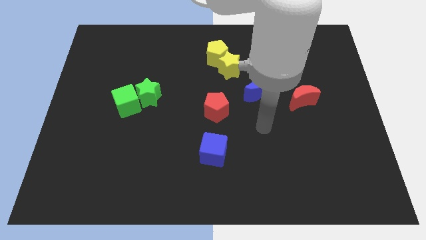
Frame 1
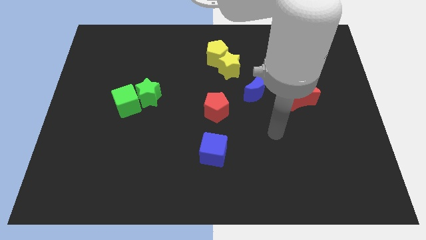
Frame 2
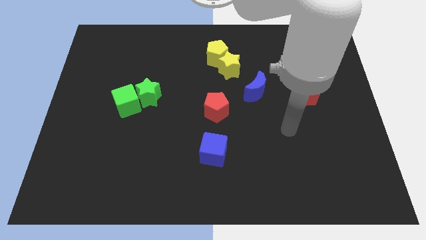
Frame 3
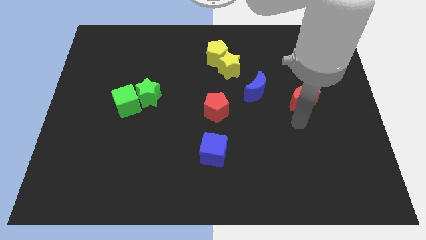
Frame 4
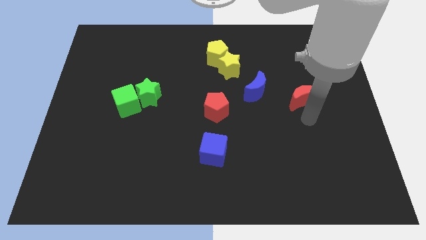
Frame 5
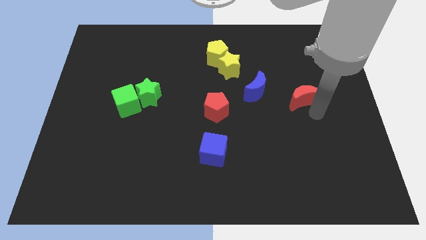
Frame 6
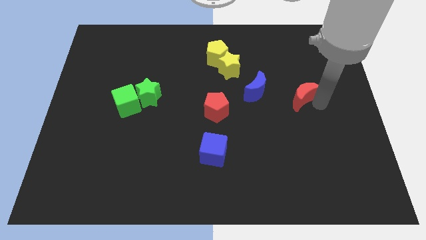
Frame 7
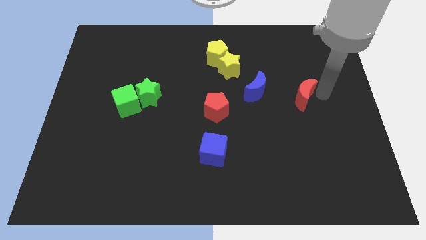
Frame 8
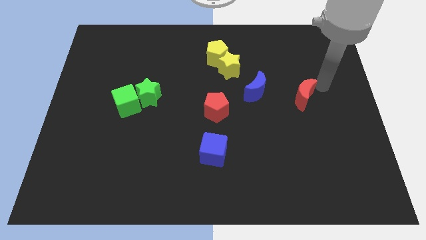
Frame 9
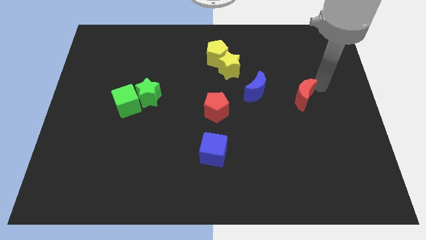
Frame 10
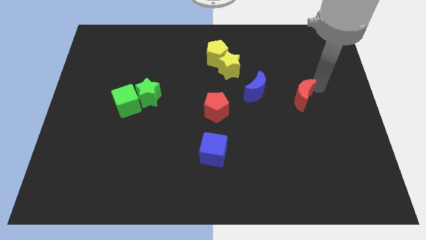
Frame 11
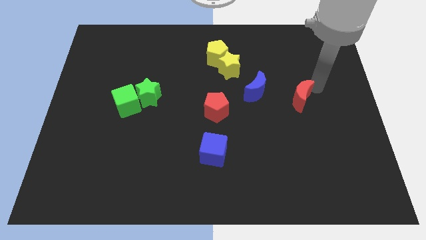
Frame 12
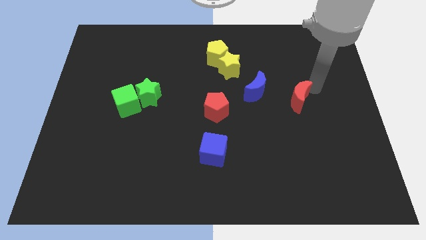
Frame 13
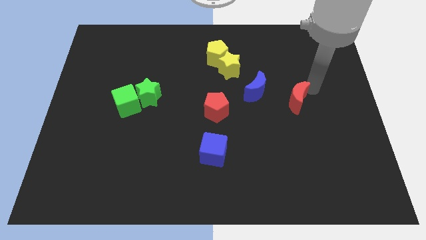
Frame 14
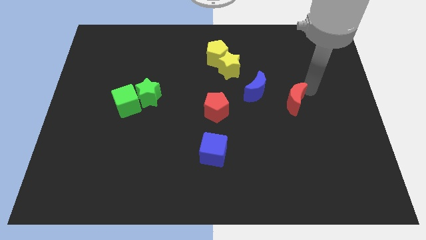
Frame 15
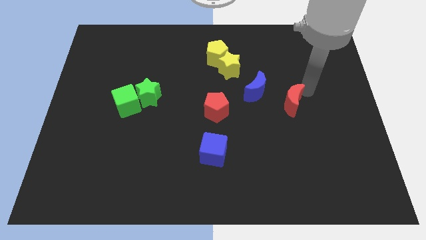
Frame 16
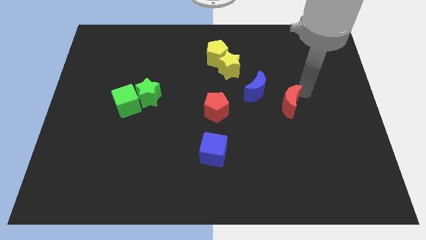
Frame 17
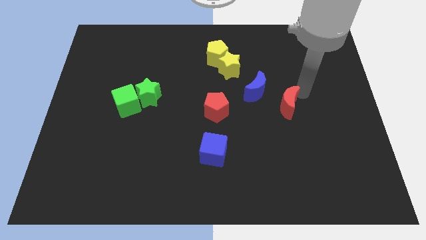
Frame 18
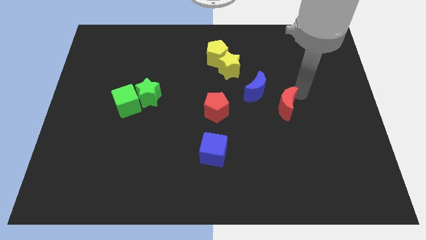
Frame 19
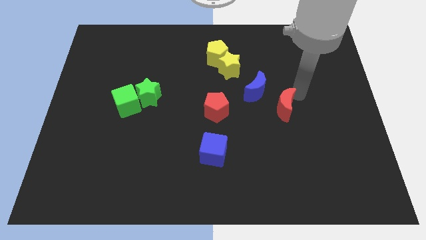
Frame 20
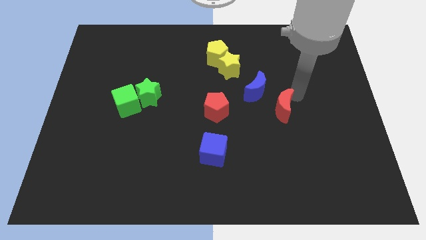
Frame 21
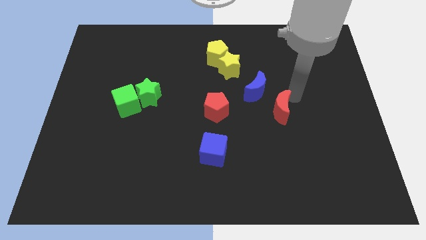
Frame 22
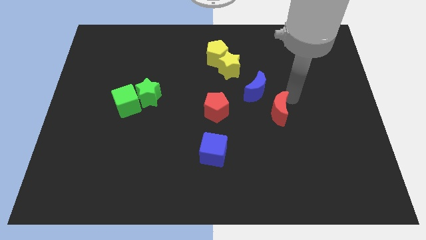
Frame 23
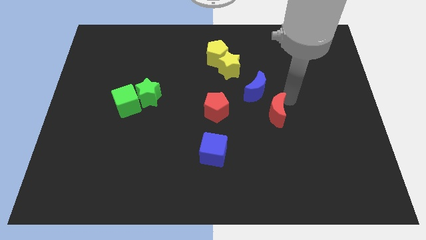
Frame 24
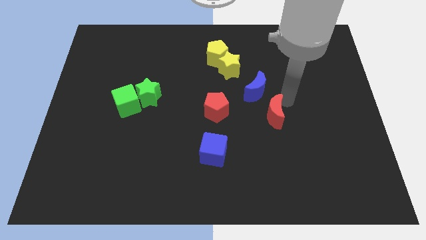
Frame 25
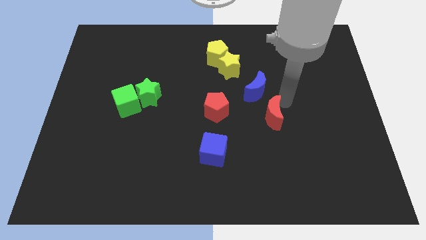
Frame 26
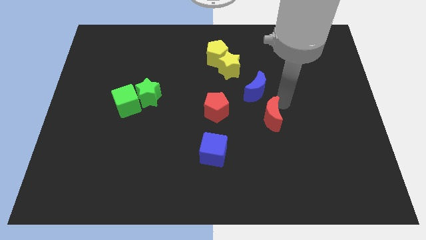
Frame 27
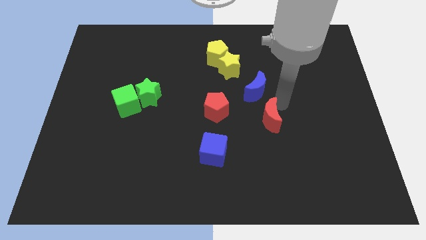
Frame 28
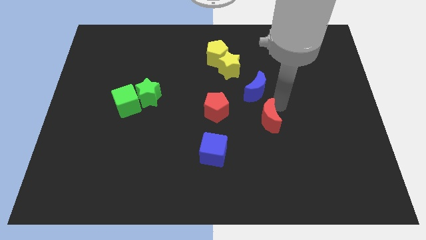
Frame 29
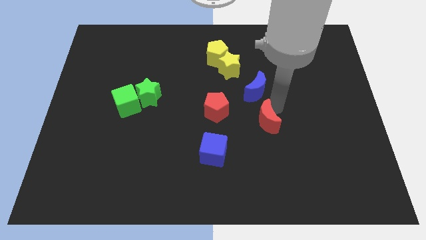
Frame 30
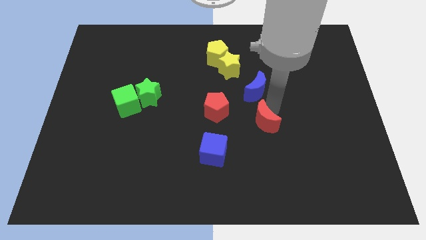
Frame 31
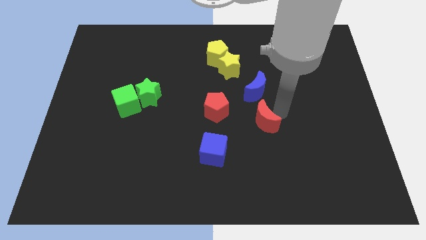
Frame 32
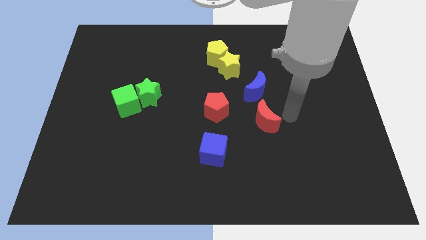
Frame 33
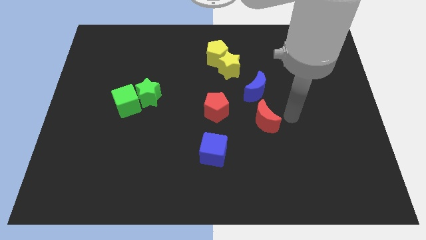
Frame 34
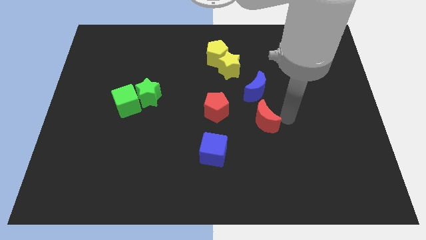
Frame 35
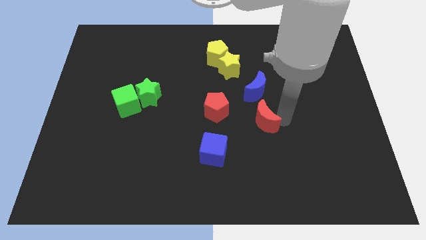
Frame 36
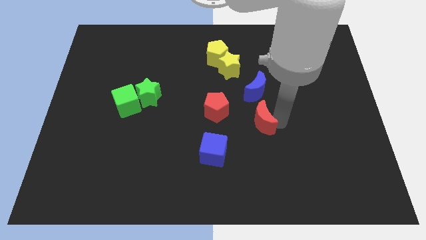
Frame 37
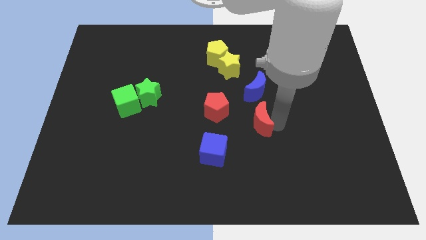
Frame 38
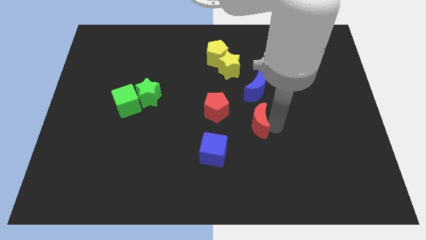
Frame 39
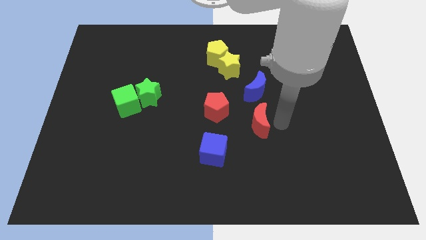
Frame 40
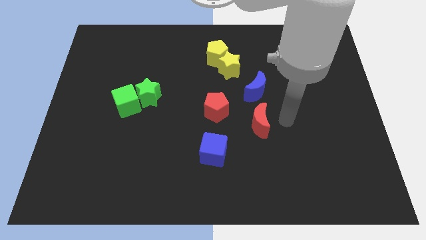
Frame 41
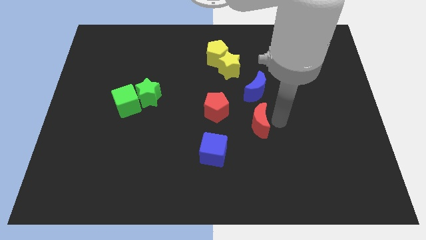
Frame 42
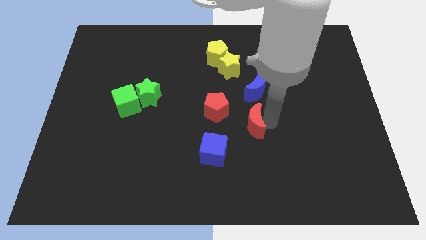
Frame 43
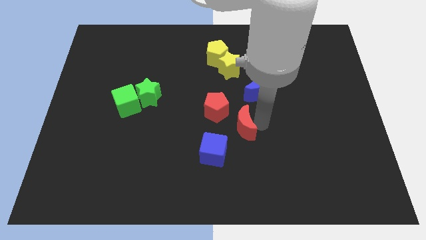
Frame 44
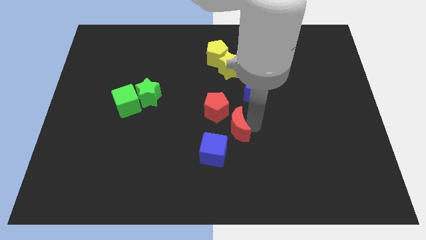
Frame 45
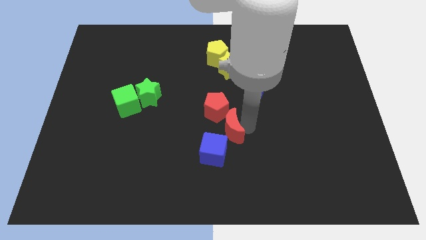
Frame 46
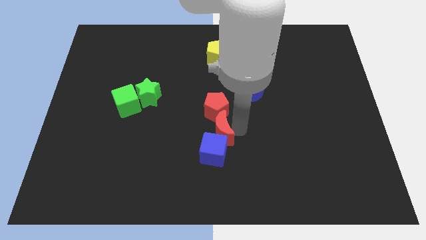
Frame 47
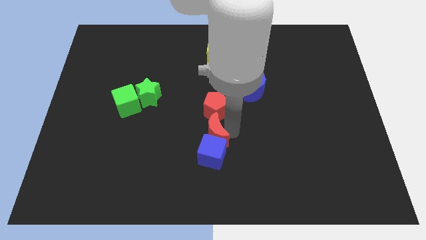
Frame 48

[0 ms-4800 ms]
slide the red moon diagonally up and to the left of the blue cube

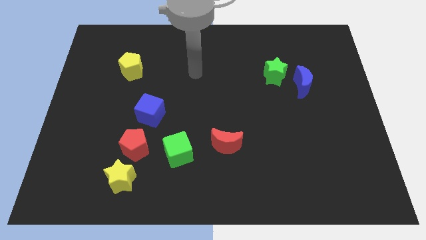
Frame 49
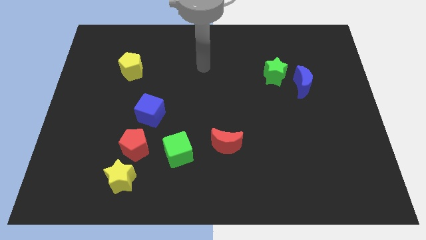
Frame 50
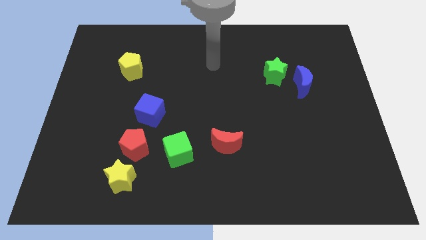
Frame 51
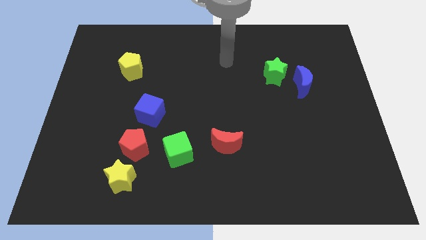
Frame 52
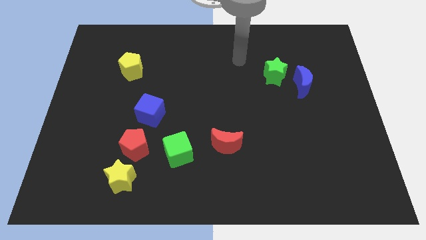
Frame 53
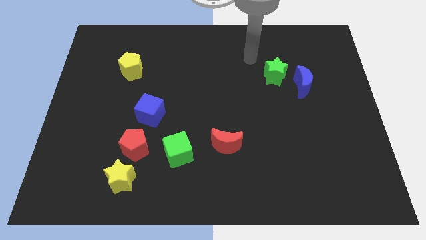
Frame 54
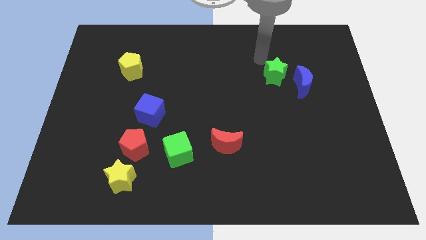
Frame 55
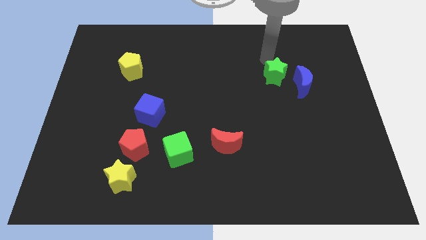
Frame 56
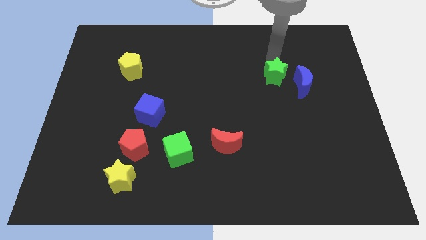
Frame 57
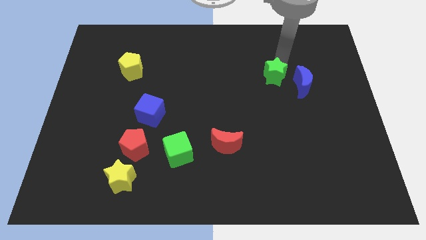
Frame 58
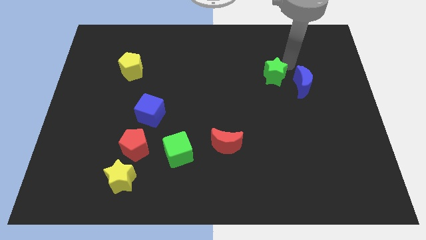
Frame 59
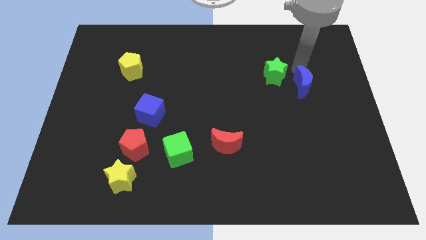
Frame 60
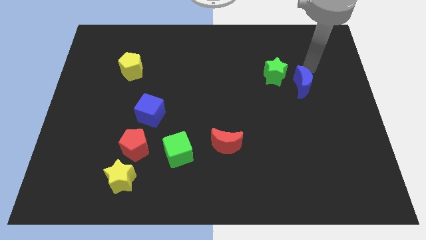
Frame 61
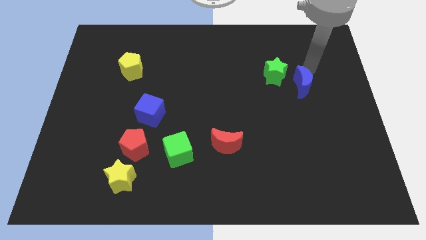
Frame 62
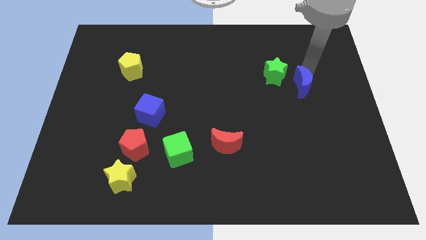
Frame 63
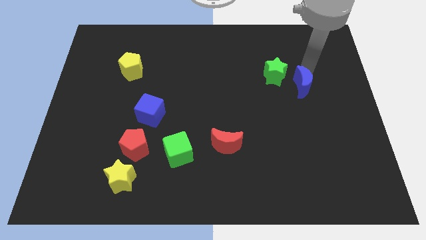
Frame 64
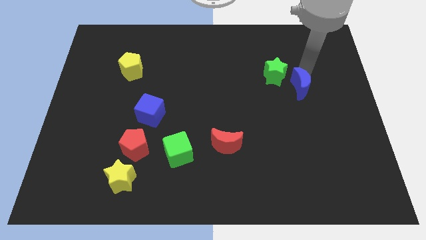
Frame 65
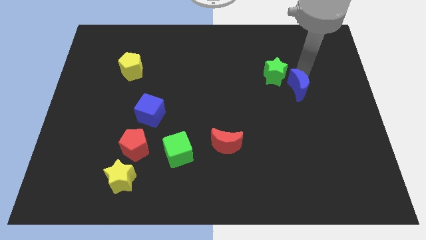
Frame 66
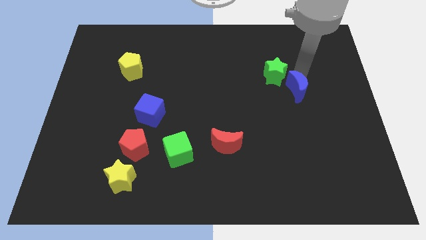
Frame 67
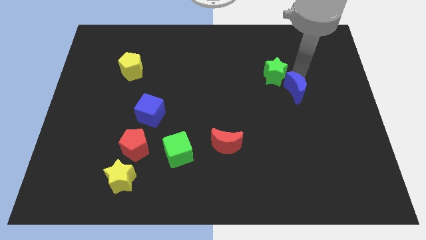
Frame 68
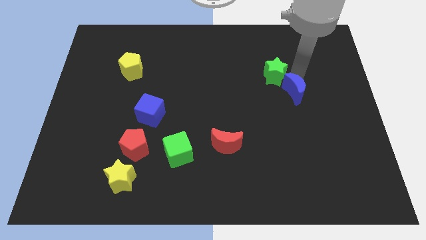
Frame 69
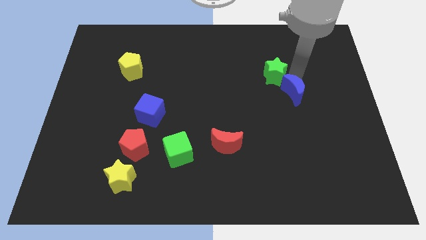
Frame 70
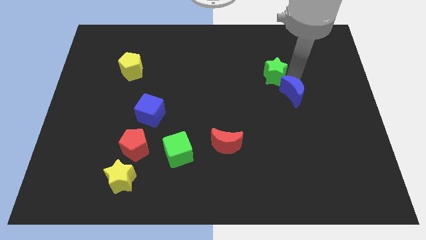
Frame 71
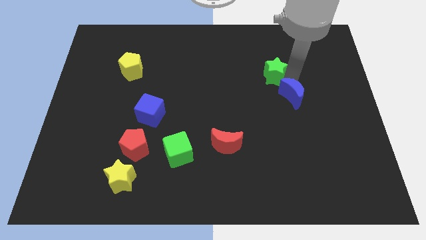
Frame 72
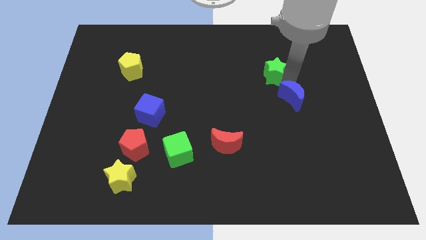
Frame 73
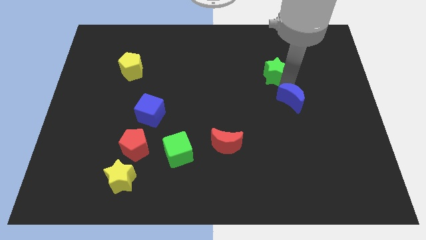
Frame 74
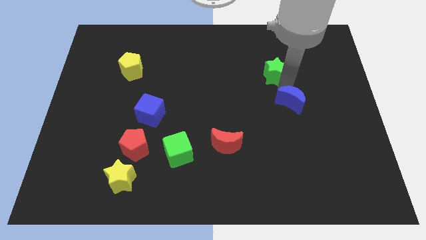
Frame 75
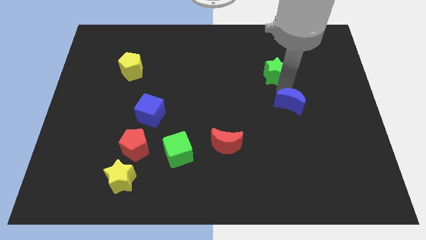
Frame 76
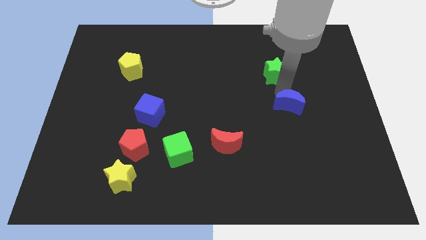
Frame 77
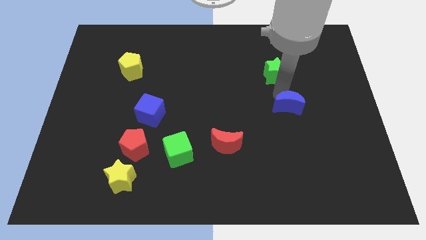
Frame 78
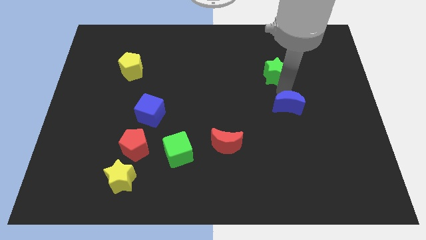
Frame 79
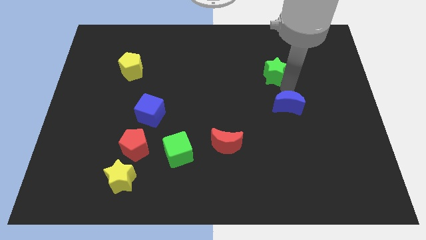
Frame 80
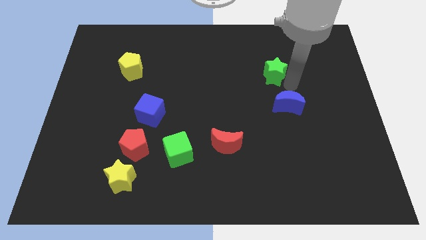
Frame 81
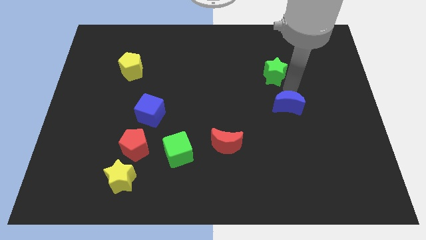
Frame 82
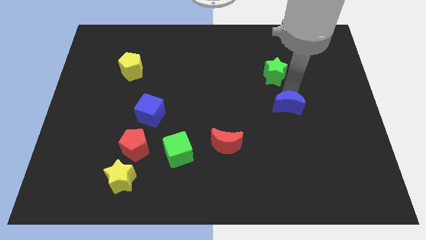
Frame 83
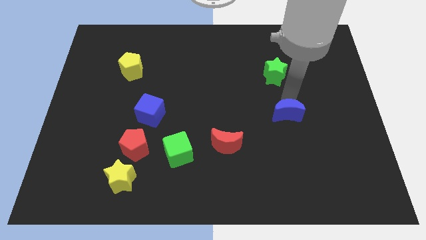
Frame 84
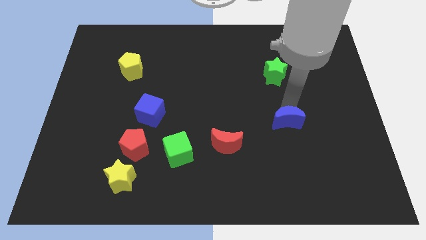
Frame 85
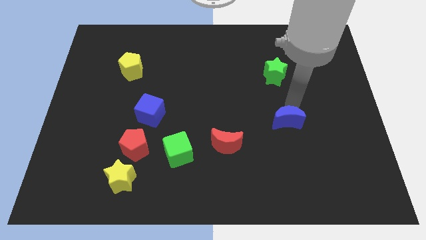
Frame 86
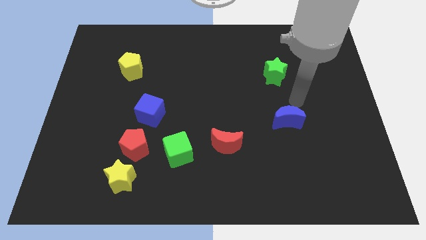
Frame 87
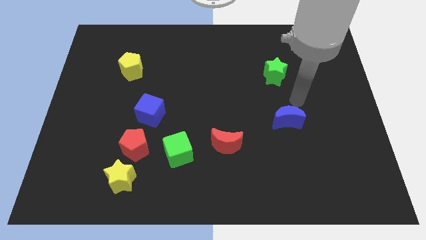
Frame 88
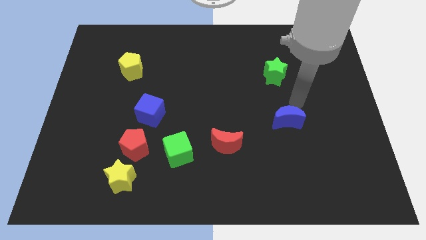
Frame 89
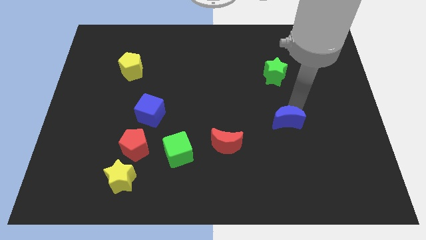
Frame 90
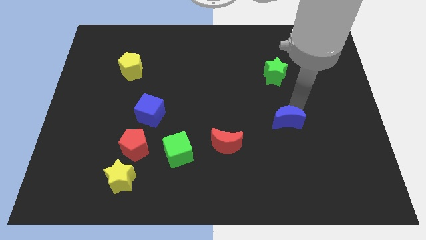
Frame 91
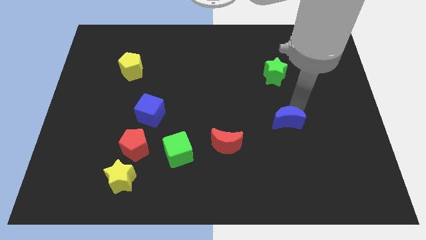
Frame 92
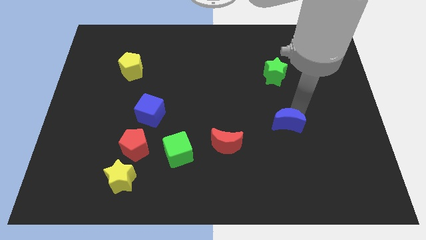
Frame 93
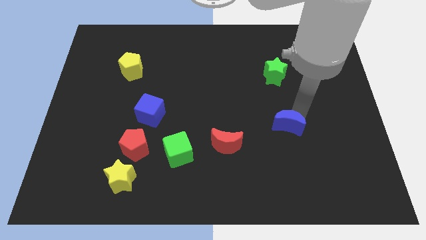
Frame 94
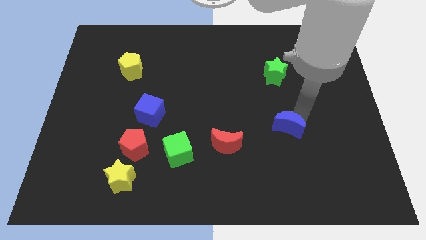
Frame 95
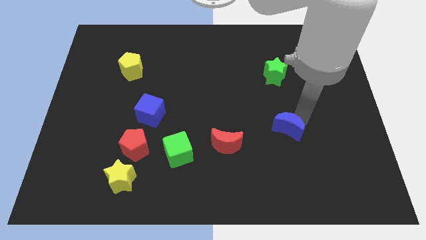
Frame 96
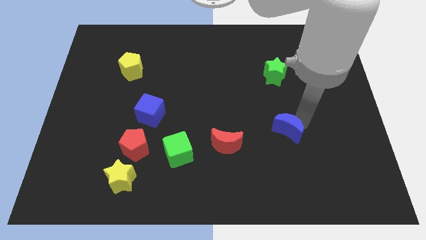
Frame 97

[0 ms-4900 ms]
slide the blue moon to the right of the red moon
